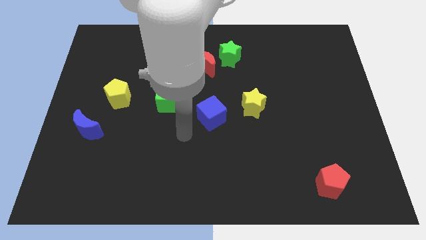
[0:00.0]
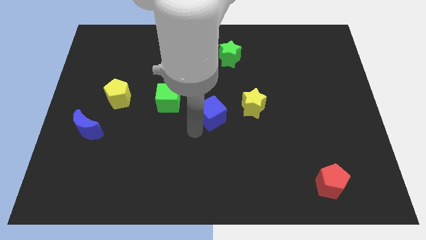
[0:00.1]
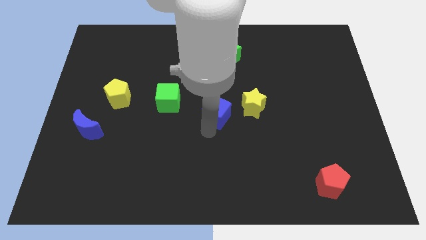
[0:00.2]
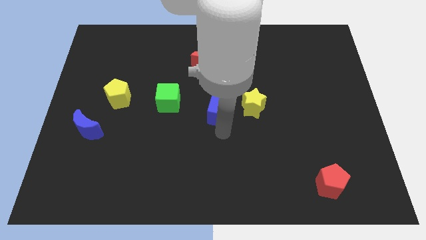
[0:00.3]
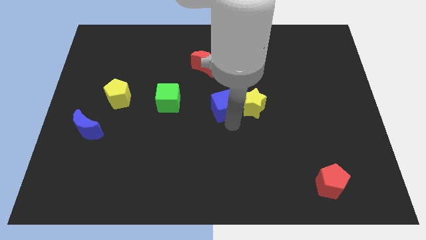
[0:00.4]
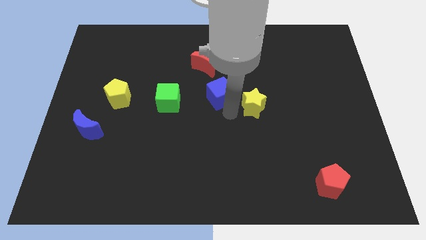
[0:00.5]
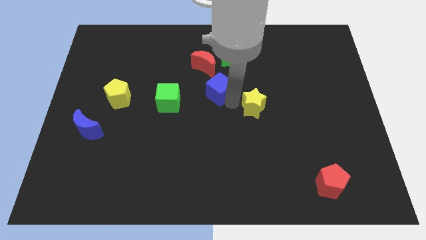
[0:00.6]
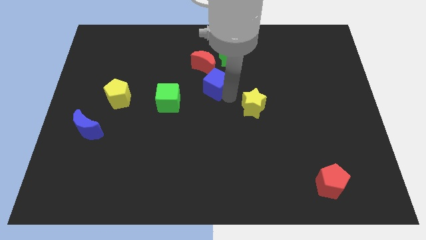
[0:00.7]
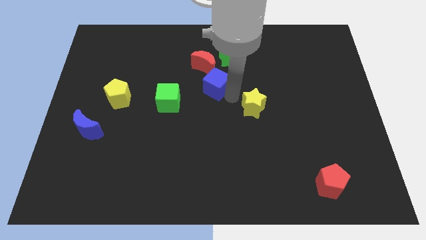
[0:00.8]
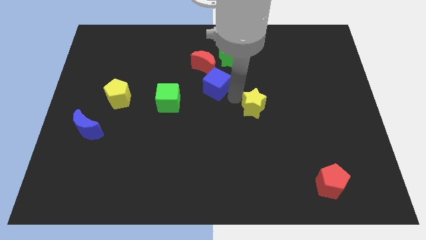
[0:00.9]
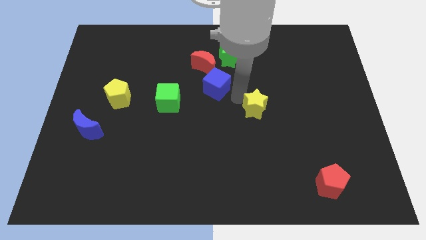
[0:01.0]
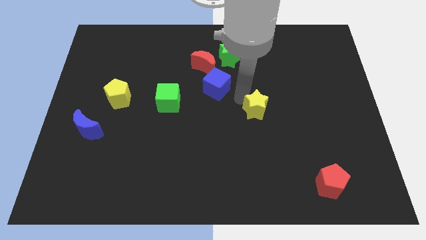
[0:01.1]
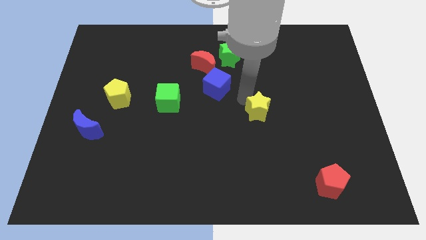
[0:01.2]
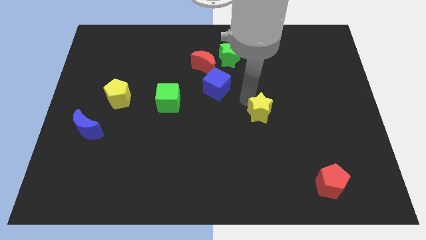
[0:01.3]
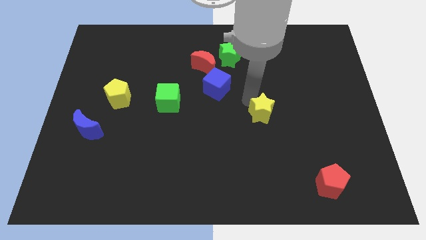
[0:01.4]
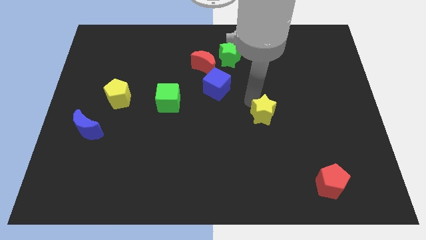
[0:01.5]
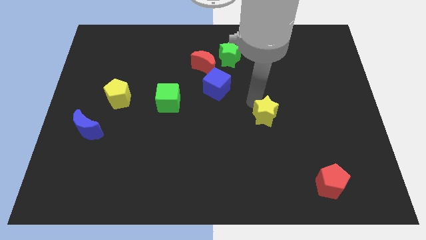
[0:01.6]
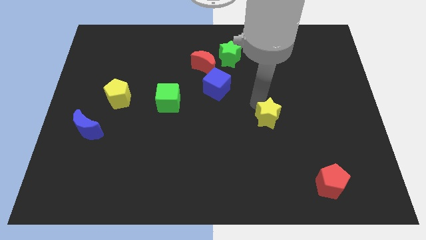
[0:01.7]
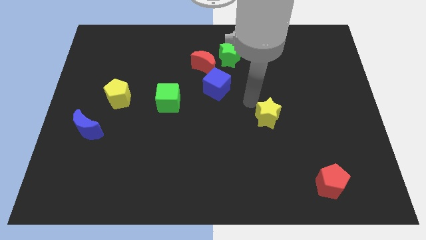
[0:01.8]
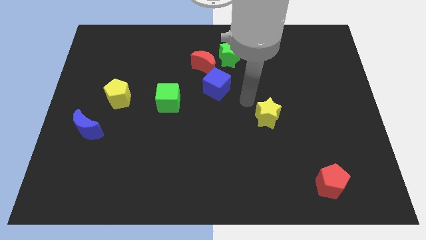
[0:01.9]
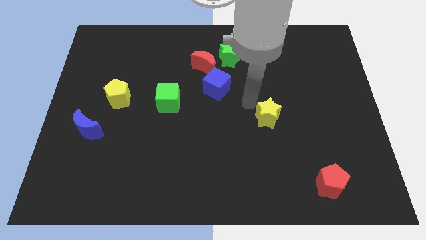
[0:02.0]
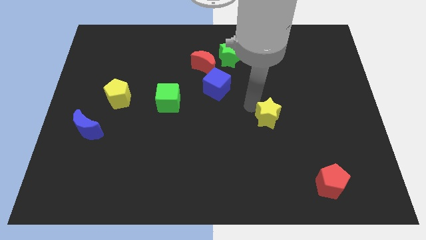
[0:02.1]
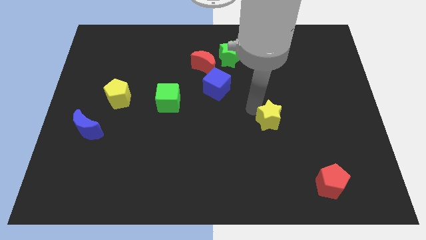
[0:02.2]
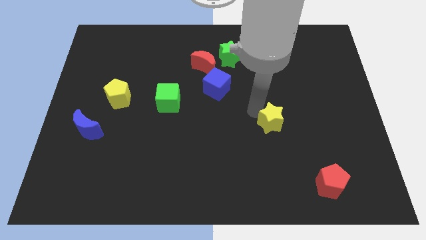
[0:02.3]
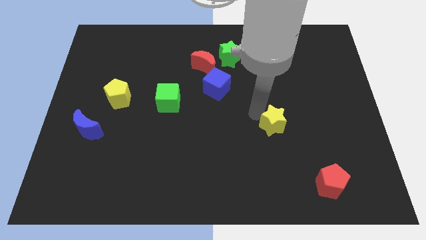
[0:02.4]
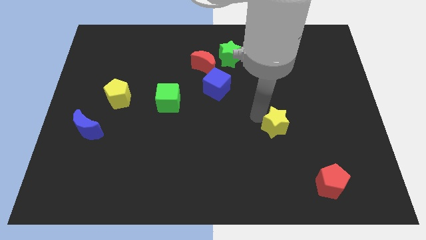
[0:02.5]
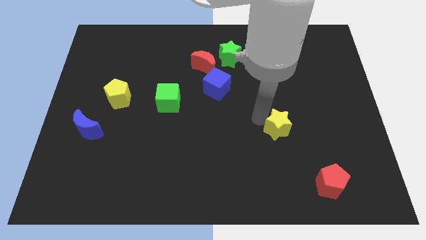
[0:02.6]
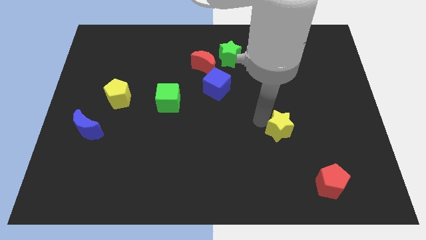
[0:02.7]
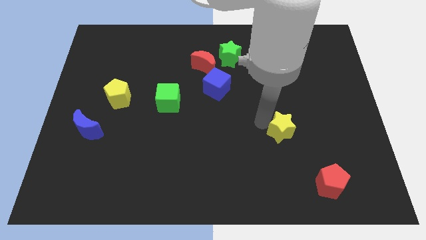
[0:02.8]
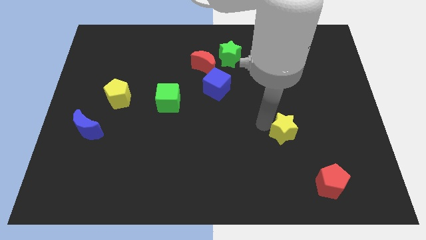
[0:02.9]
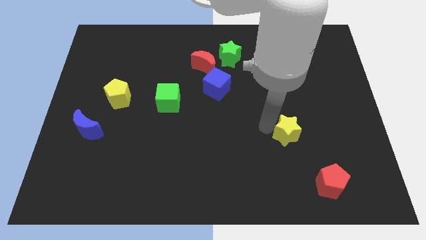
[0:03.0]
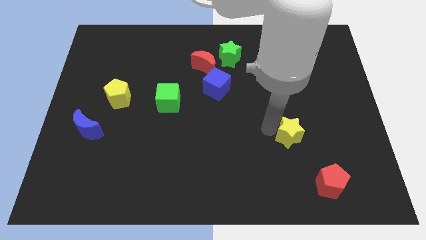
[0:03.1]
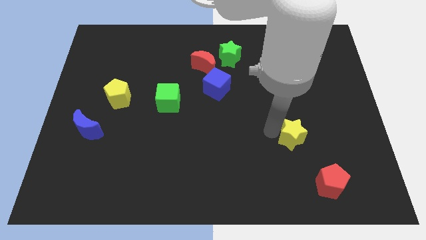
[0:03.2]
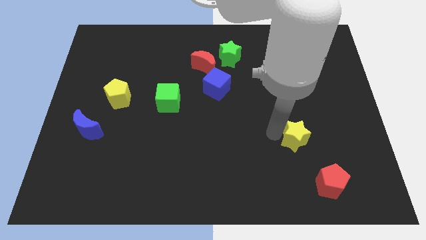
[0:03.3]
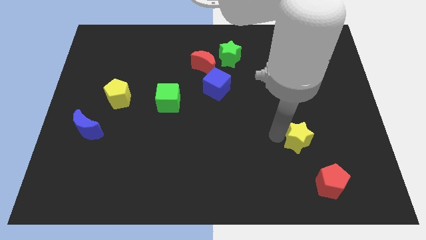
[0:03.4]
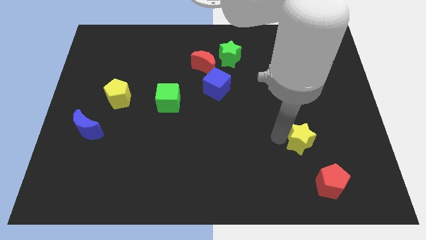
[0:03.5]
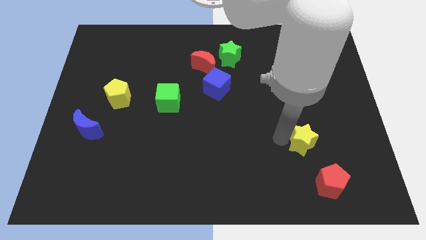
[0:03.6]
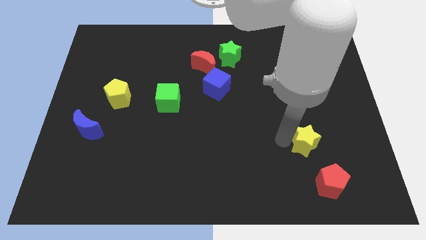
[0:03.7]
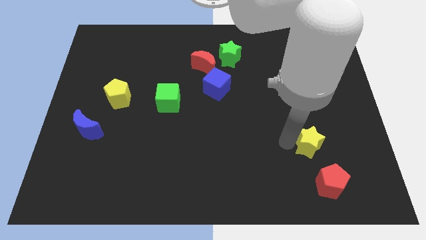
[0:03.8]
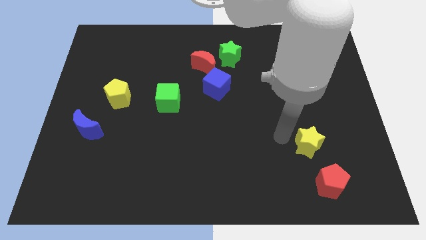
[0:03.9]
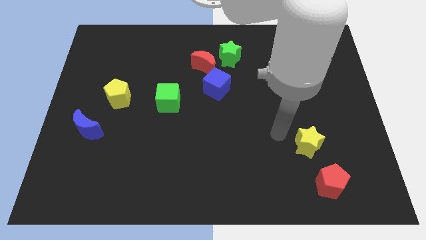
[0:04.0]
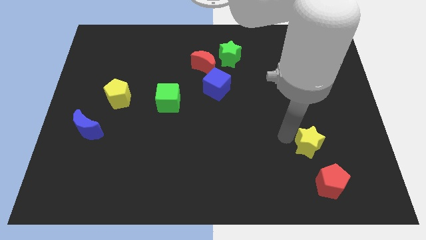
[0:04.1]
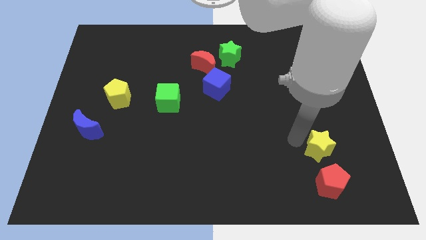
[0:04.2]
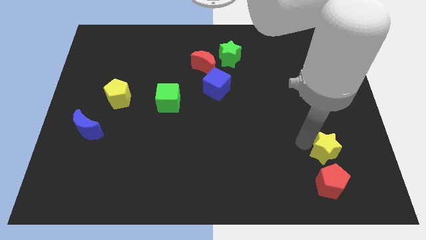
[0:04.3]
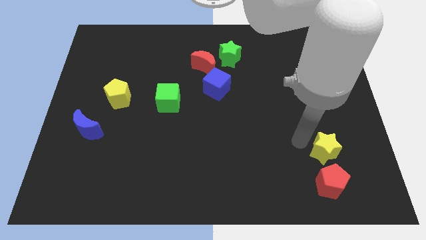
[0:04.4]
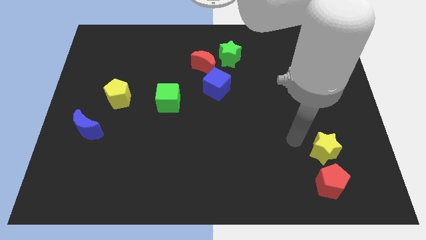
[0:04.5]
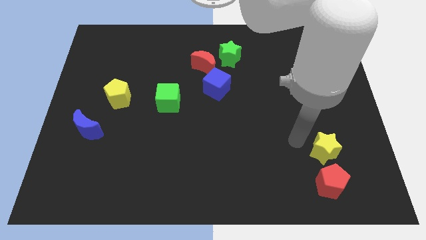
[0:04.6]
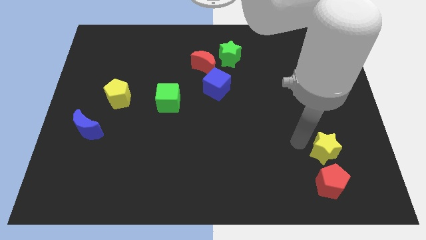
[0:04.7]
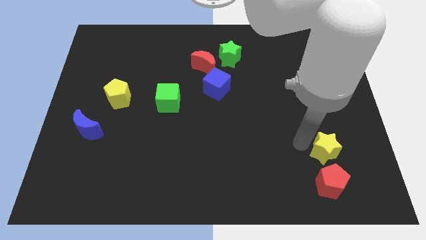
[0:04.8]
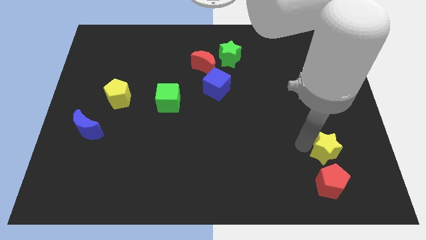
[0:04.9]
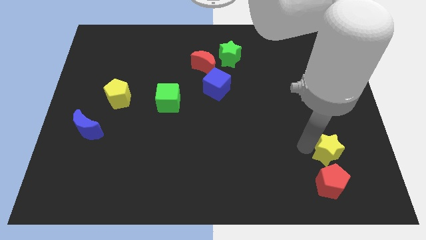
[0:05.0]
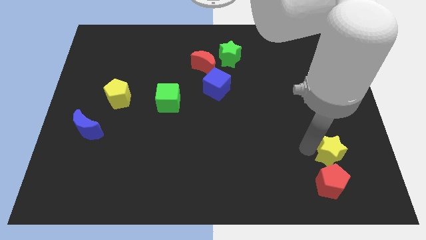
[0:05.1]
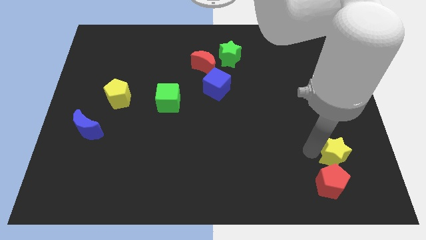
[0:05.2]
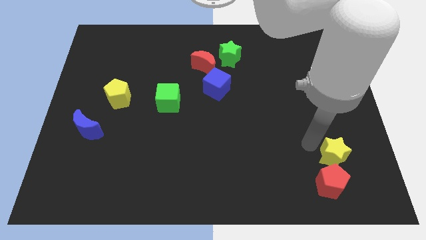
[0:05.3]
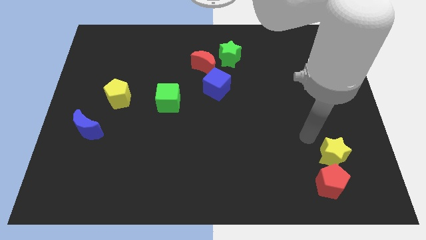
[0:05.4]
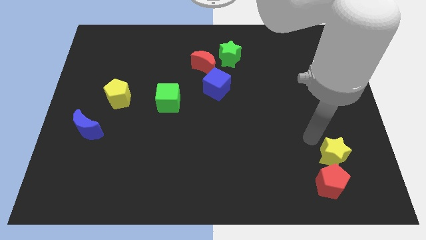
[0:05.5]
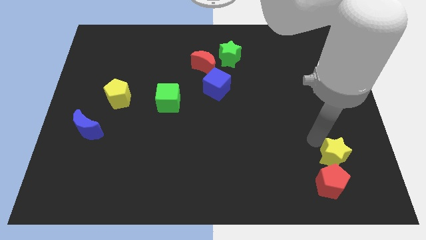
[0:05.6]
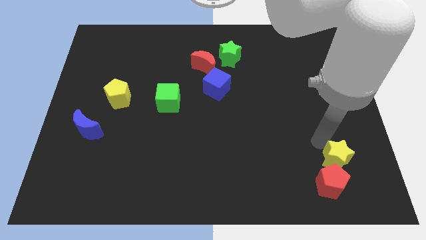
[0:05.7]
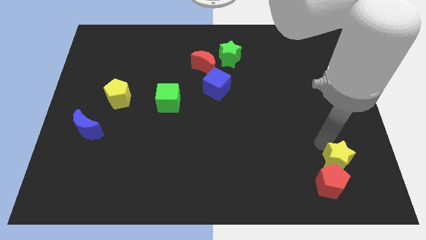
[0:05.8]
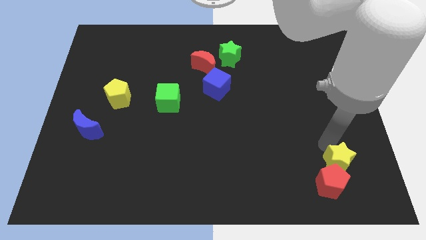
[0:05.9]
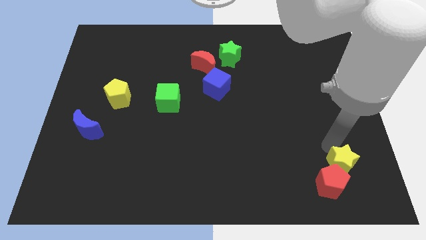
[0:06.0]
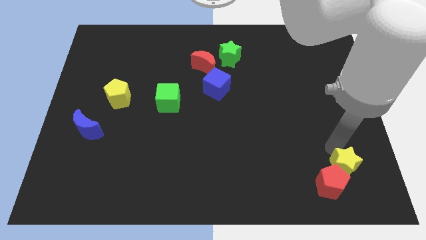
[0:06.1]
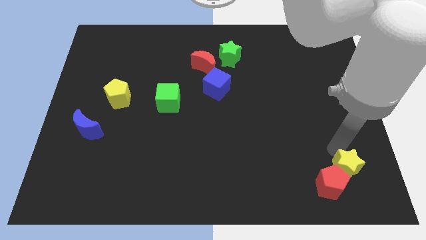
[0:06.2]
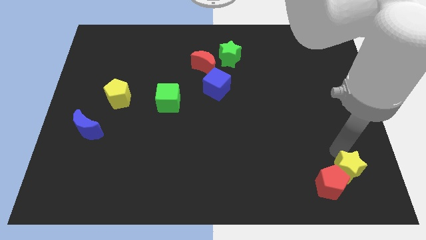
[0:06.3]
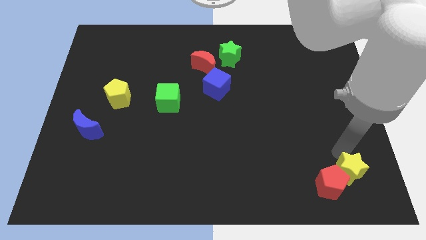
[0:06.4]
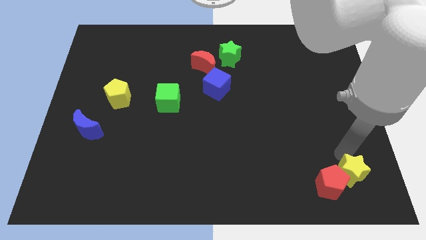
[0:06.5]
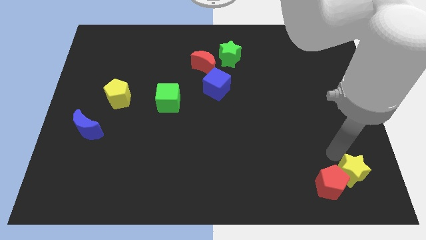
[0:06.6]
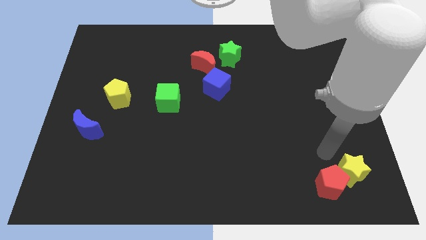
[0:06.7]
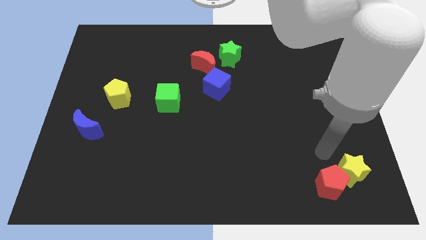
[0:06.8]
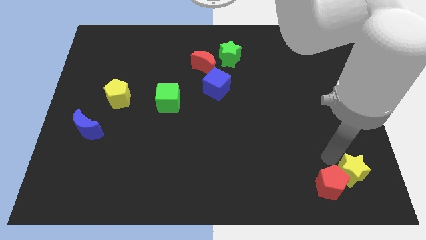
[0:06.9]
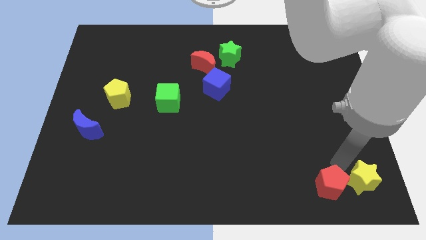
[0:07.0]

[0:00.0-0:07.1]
slide the yellow star to the bottom right of the board

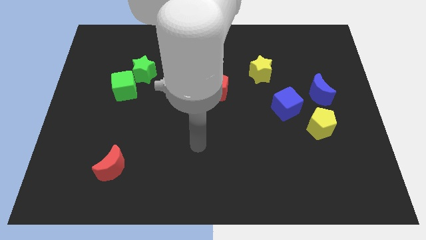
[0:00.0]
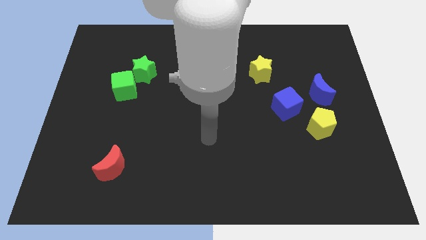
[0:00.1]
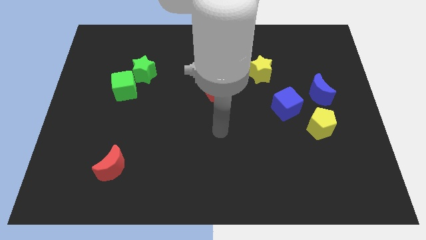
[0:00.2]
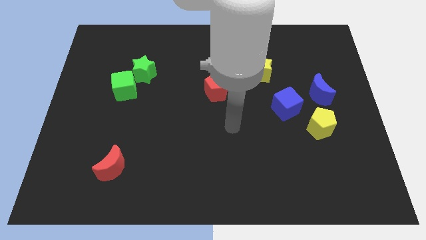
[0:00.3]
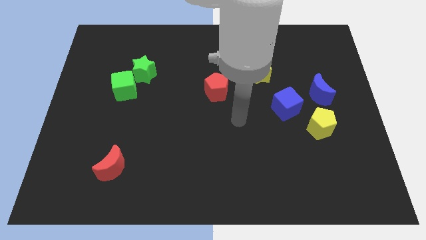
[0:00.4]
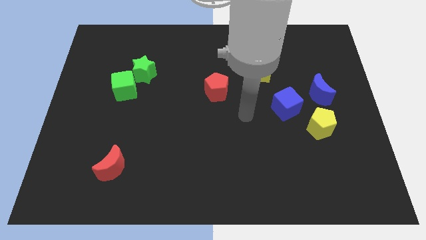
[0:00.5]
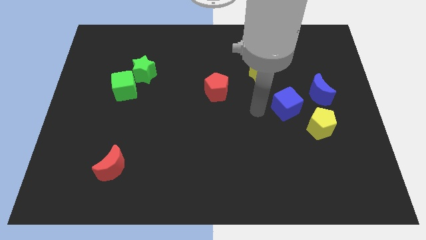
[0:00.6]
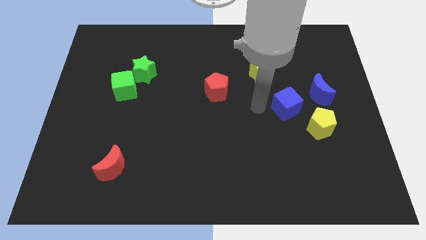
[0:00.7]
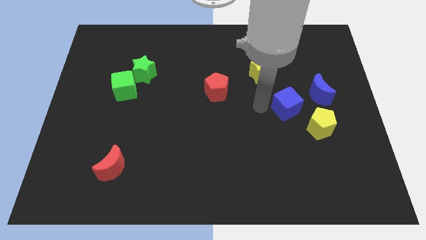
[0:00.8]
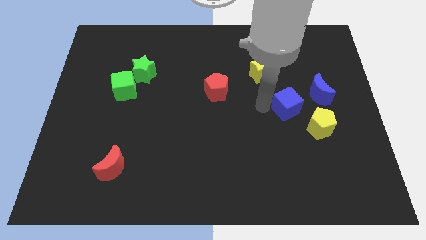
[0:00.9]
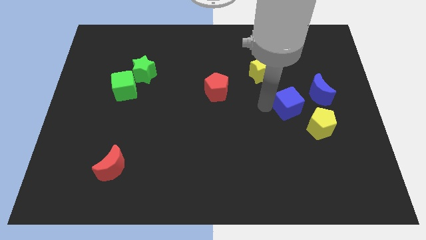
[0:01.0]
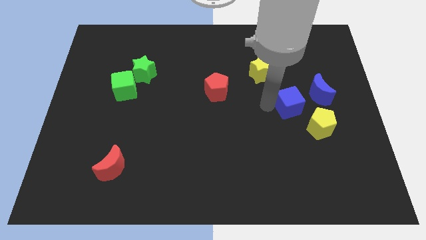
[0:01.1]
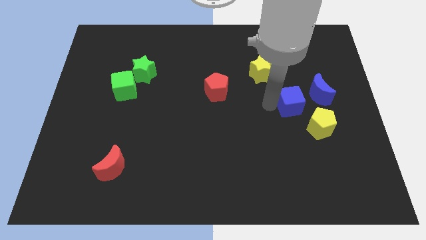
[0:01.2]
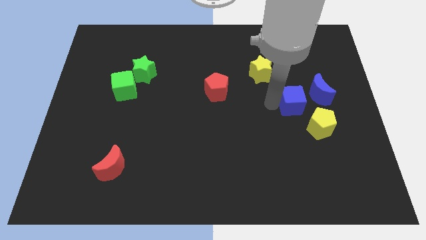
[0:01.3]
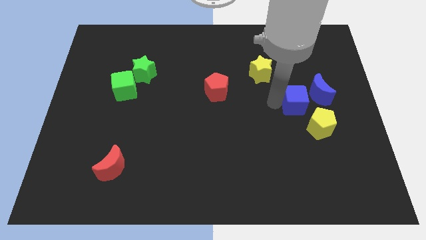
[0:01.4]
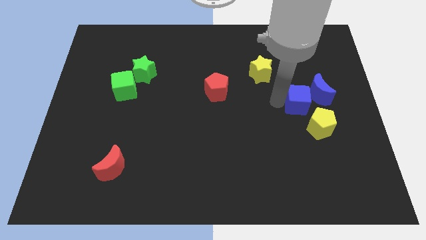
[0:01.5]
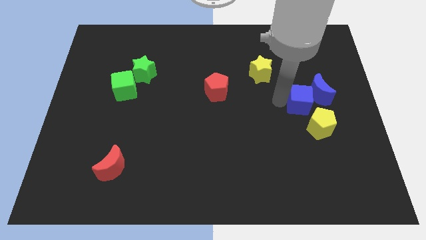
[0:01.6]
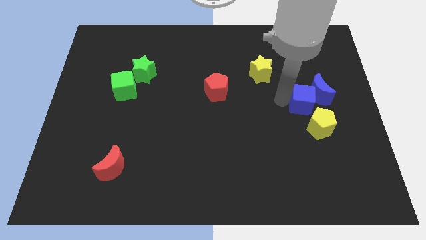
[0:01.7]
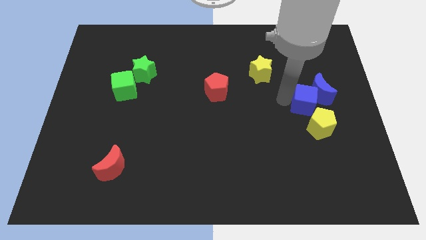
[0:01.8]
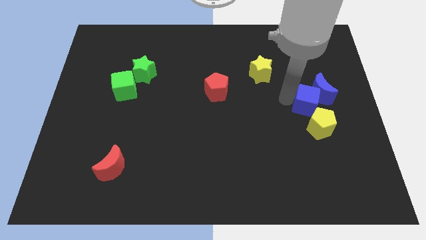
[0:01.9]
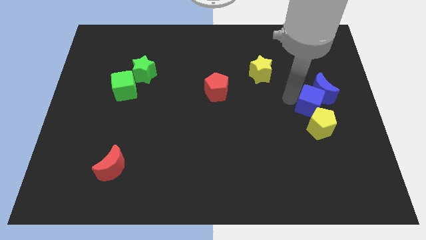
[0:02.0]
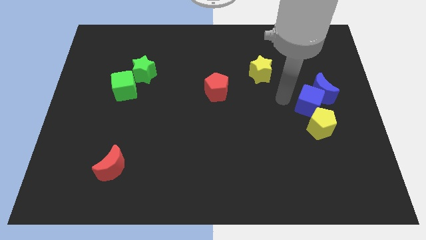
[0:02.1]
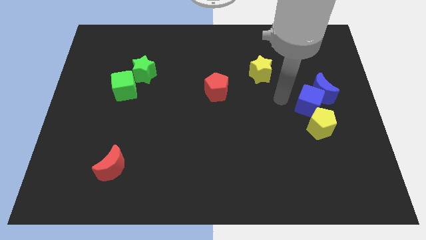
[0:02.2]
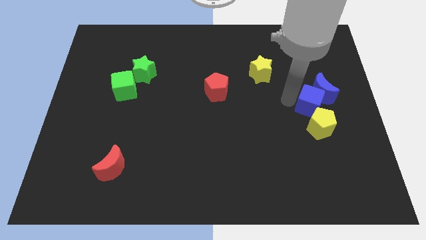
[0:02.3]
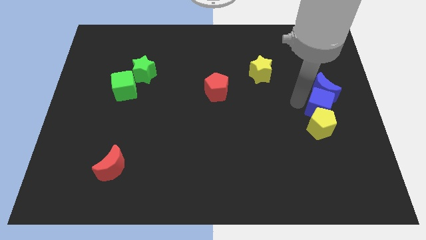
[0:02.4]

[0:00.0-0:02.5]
push the blue cube to the right side of the board
